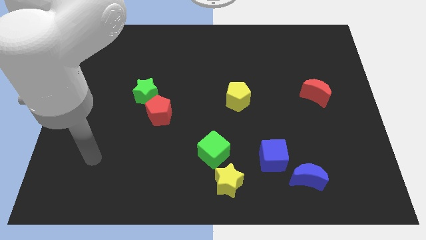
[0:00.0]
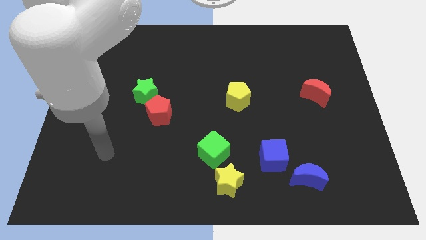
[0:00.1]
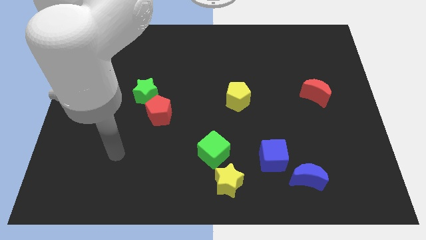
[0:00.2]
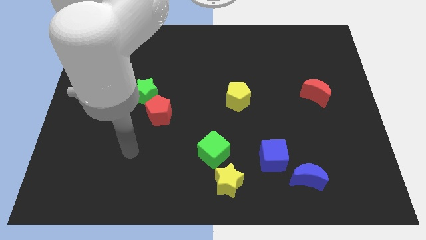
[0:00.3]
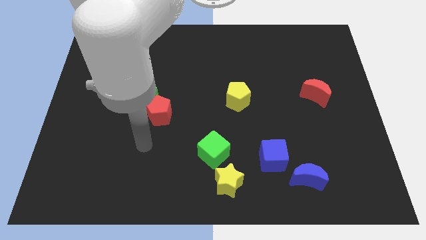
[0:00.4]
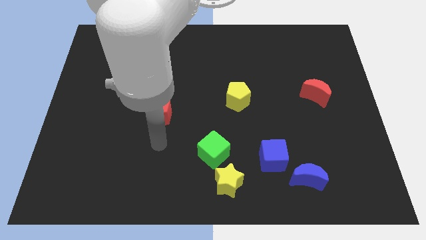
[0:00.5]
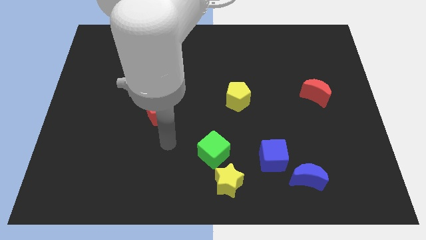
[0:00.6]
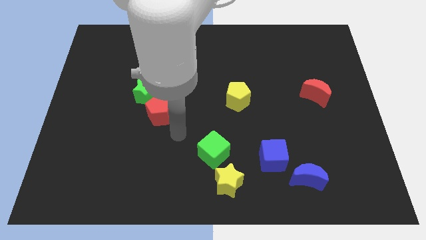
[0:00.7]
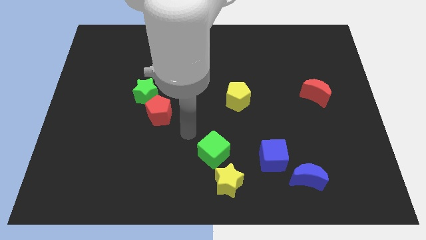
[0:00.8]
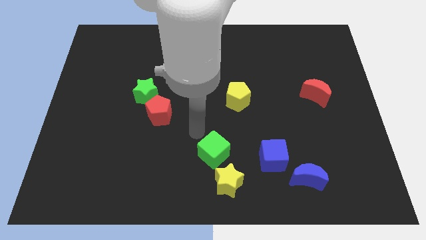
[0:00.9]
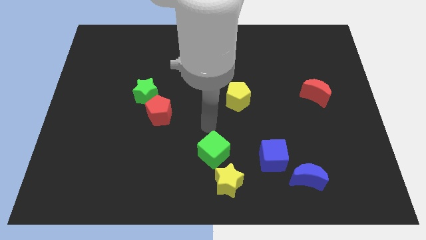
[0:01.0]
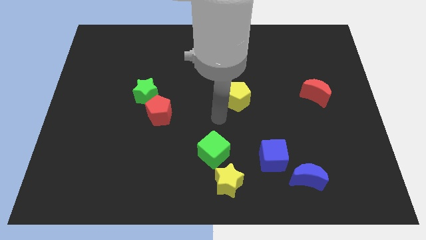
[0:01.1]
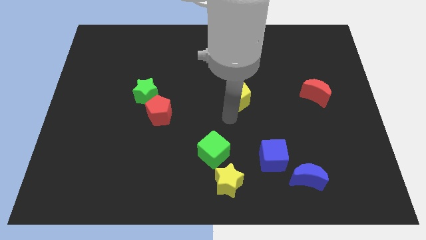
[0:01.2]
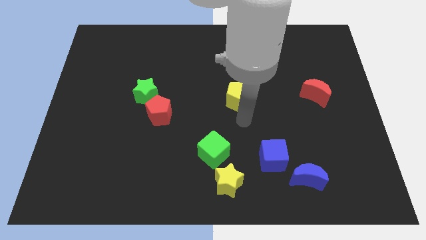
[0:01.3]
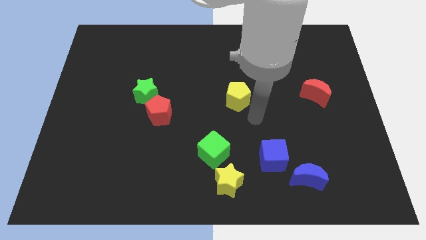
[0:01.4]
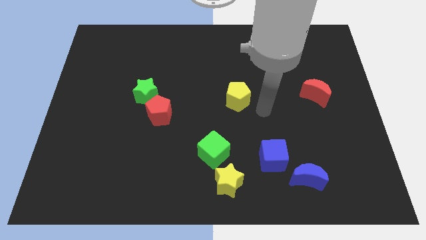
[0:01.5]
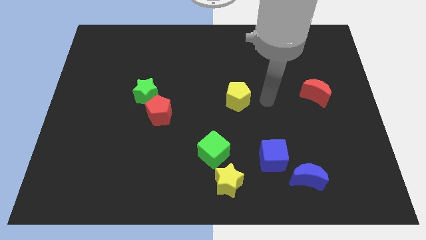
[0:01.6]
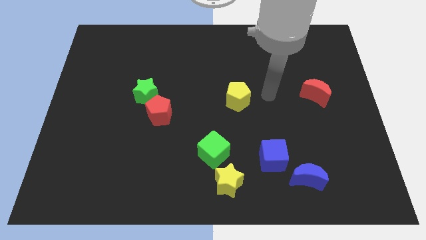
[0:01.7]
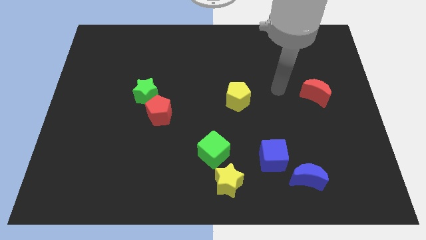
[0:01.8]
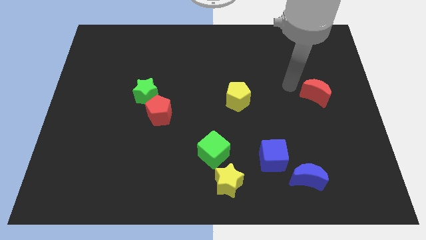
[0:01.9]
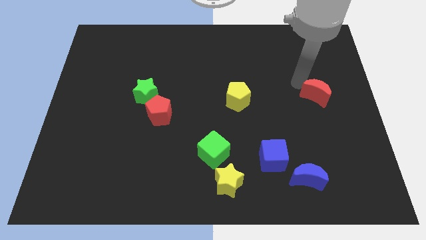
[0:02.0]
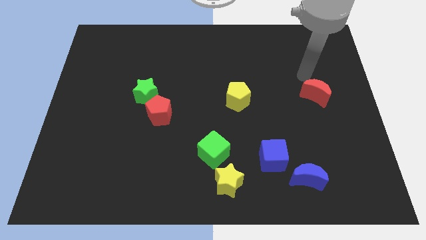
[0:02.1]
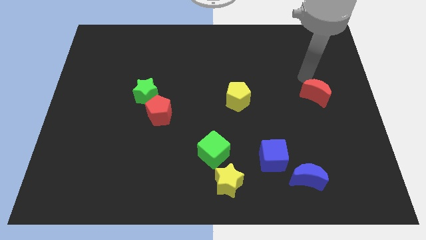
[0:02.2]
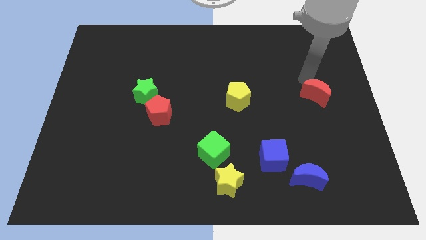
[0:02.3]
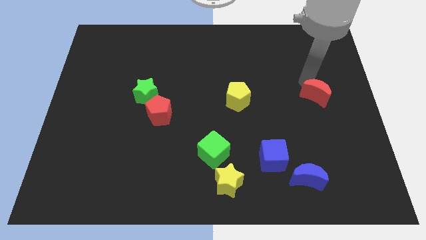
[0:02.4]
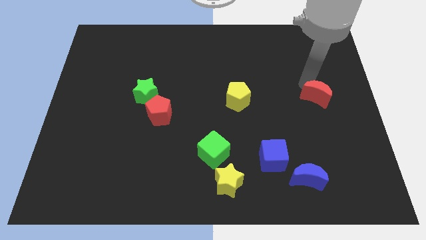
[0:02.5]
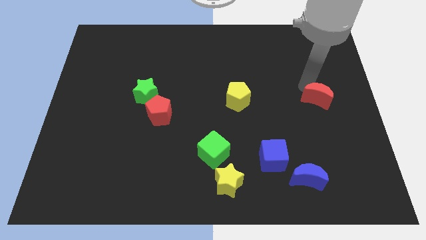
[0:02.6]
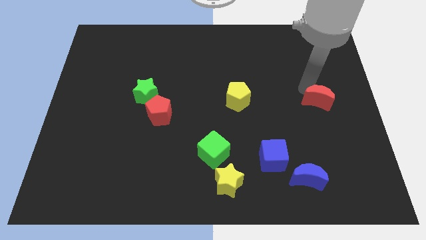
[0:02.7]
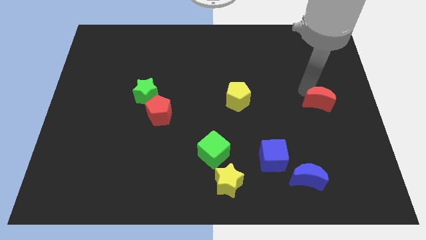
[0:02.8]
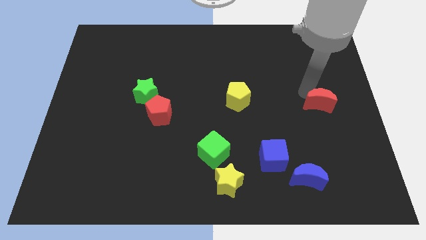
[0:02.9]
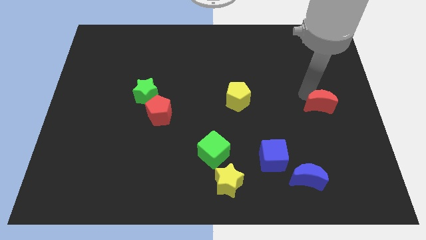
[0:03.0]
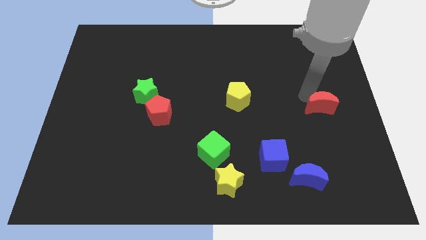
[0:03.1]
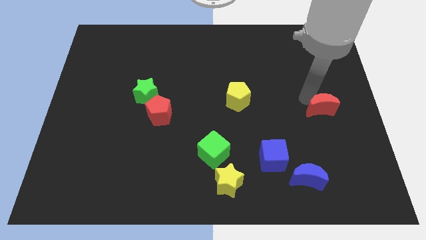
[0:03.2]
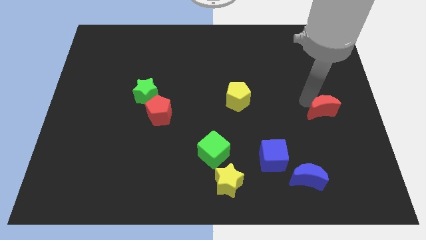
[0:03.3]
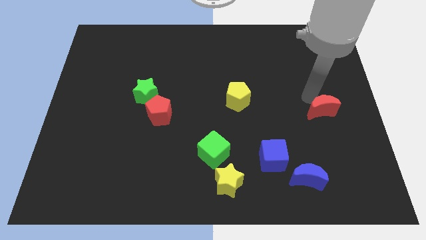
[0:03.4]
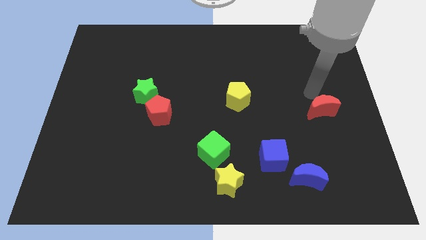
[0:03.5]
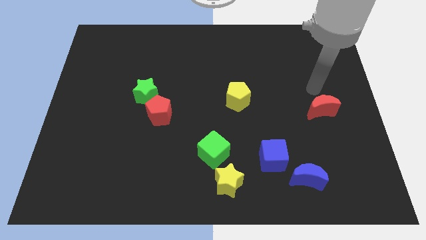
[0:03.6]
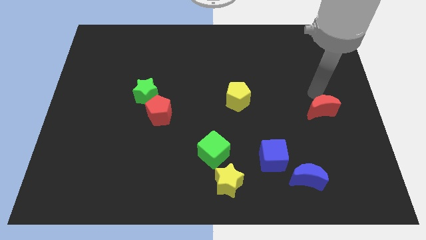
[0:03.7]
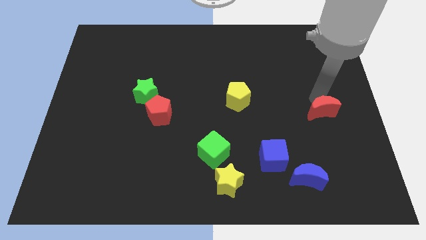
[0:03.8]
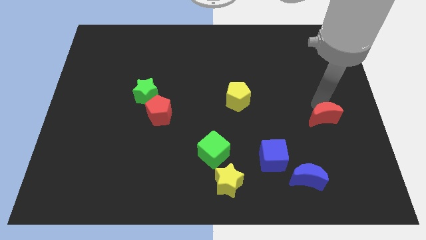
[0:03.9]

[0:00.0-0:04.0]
slightly slide the red moon downwards

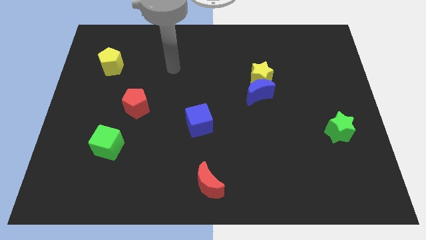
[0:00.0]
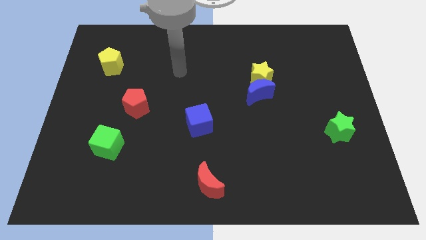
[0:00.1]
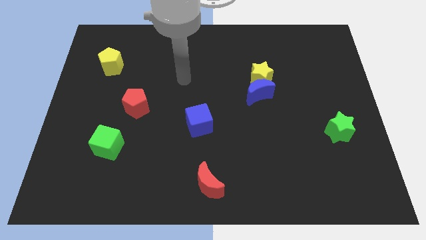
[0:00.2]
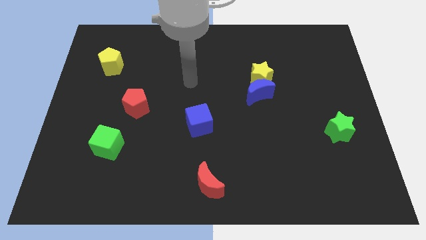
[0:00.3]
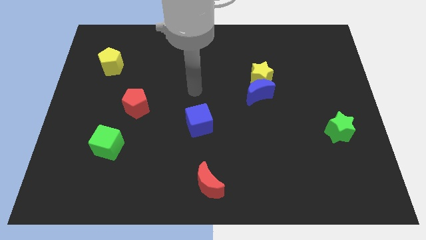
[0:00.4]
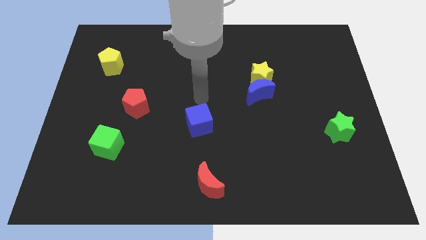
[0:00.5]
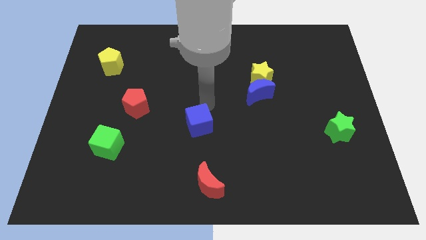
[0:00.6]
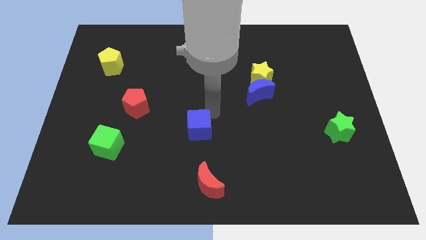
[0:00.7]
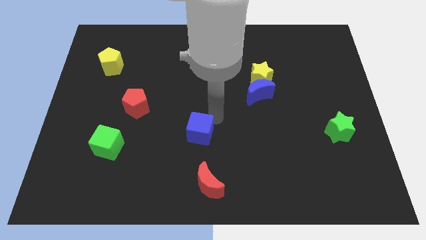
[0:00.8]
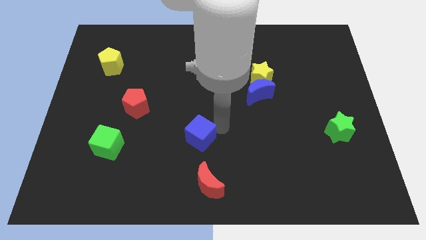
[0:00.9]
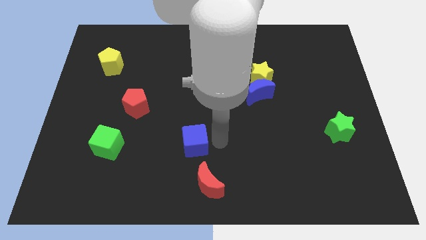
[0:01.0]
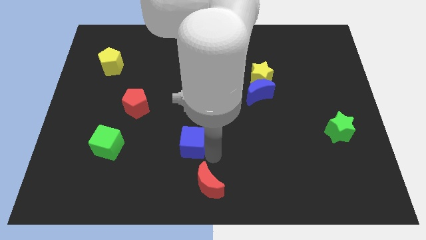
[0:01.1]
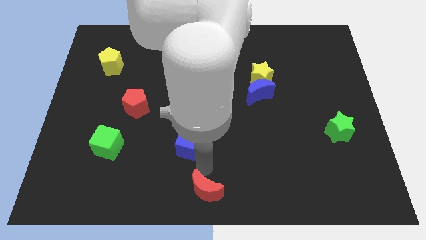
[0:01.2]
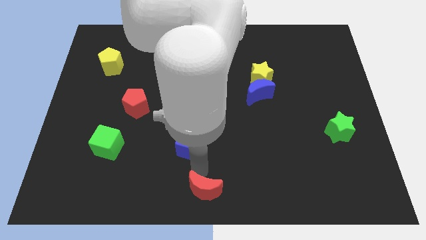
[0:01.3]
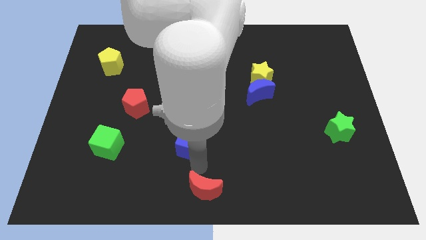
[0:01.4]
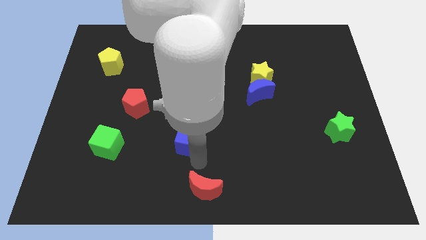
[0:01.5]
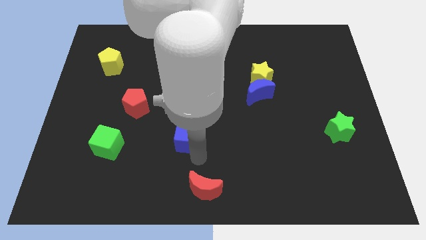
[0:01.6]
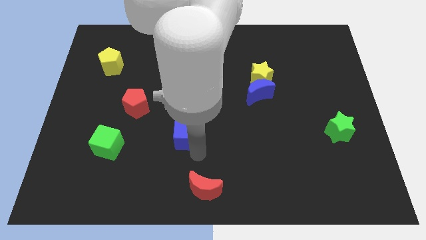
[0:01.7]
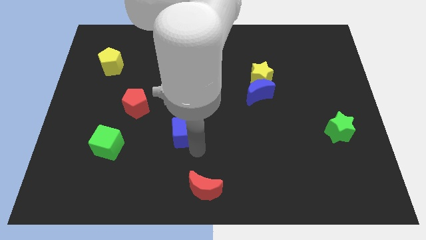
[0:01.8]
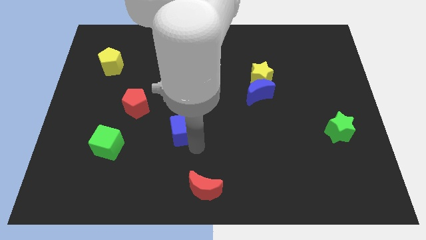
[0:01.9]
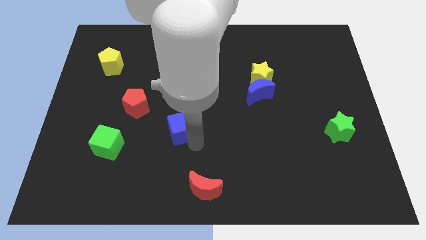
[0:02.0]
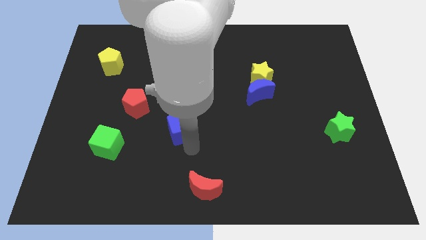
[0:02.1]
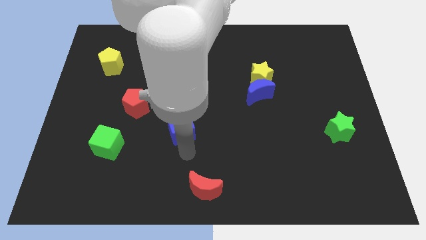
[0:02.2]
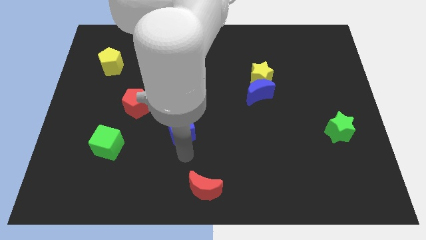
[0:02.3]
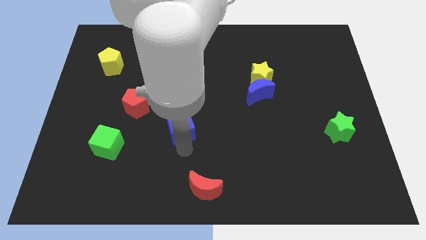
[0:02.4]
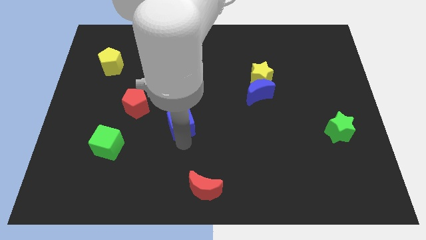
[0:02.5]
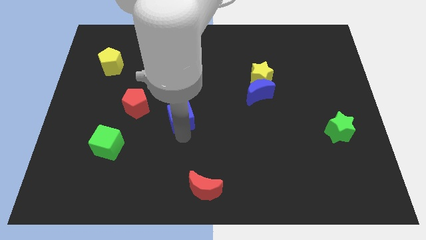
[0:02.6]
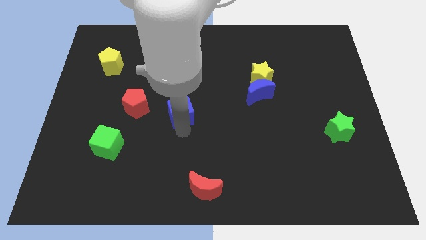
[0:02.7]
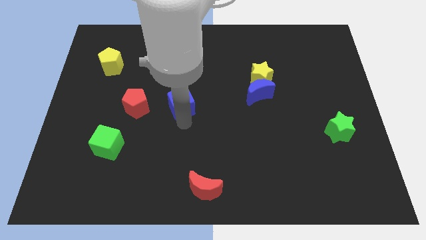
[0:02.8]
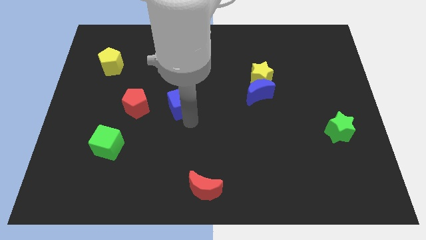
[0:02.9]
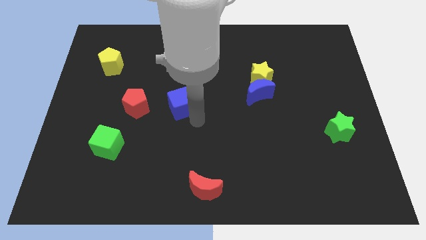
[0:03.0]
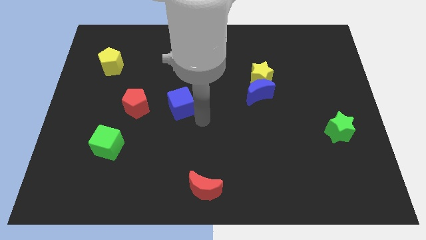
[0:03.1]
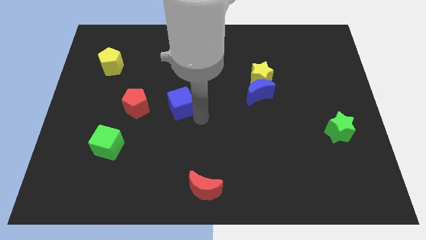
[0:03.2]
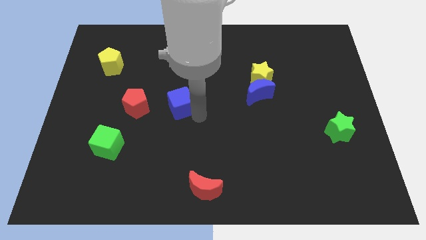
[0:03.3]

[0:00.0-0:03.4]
slide the blue cube a little upwards and left

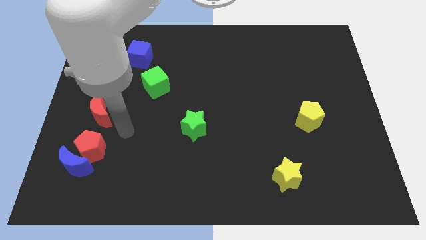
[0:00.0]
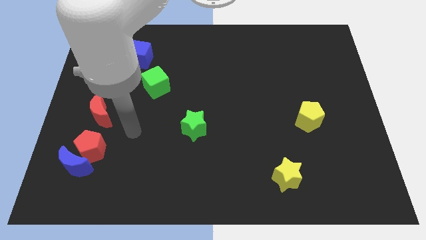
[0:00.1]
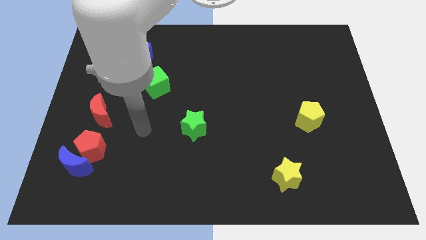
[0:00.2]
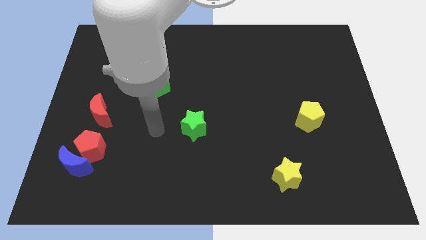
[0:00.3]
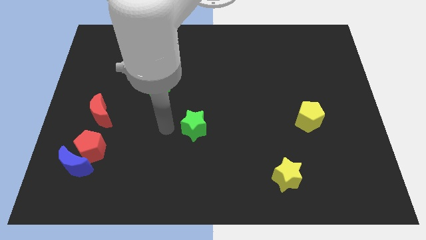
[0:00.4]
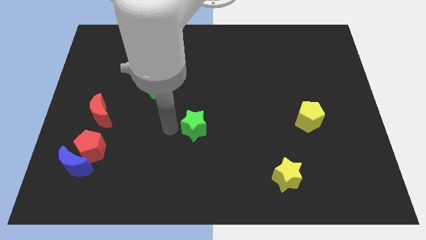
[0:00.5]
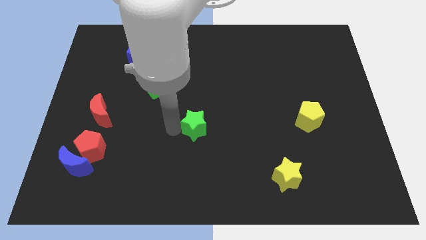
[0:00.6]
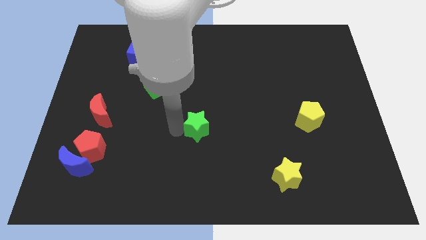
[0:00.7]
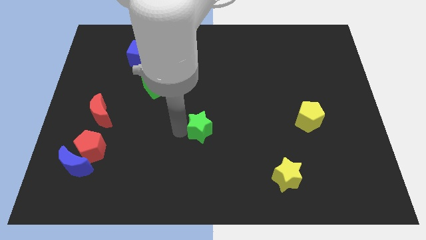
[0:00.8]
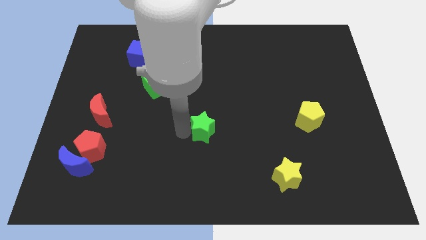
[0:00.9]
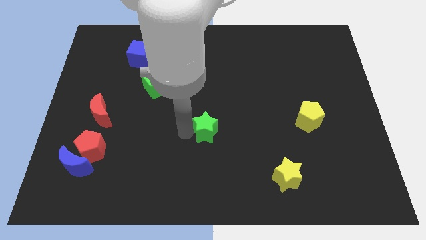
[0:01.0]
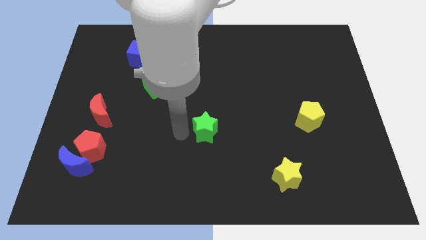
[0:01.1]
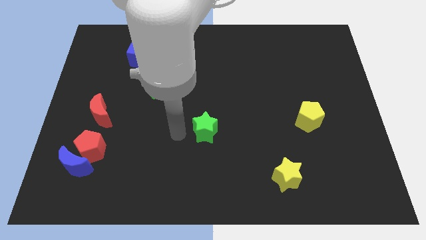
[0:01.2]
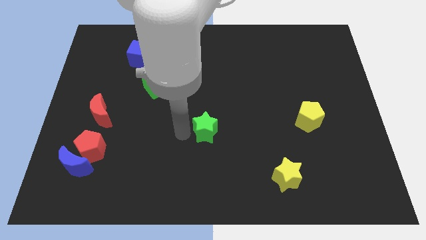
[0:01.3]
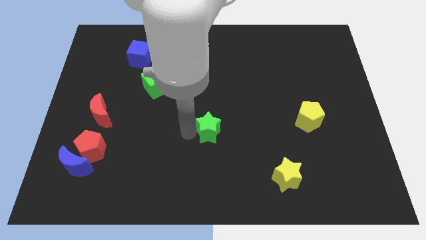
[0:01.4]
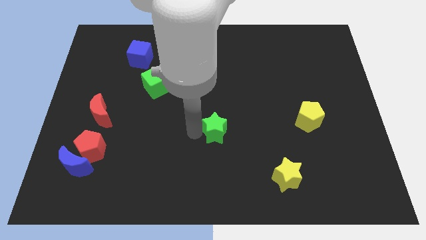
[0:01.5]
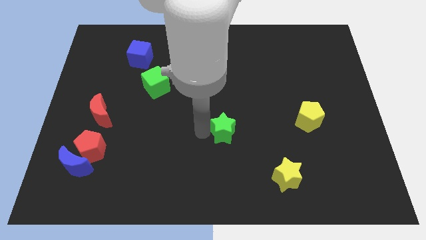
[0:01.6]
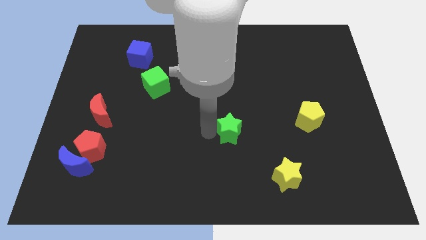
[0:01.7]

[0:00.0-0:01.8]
slide the green star a bit to the right
